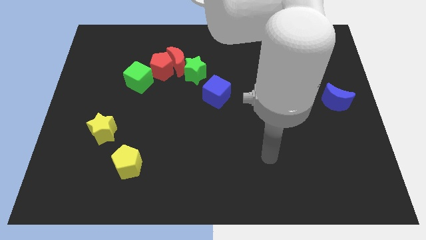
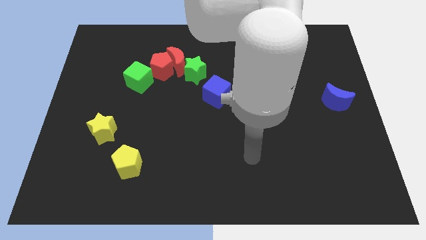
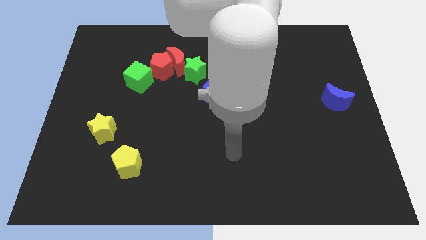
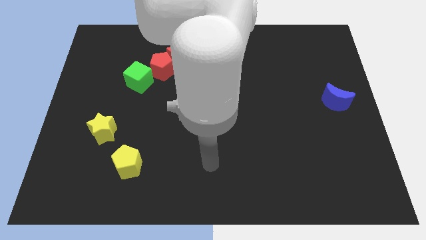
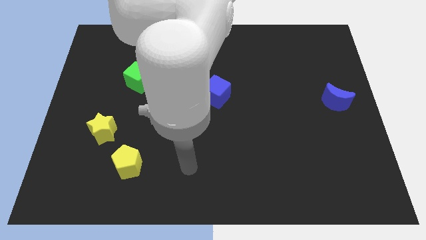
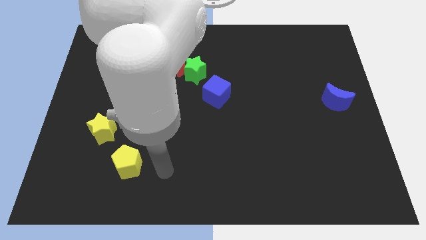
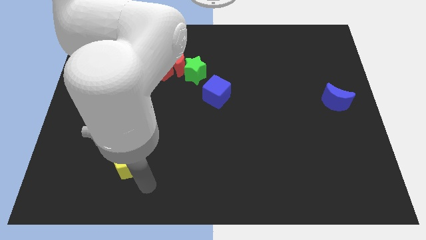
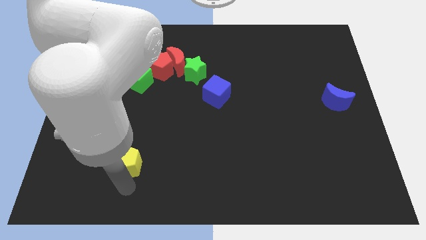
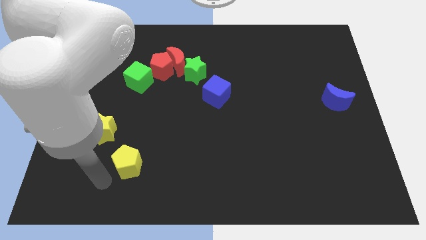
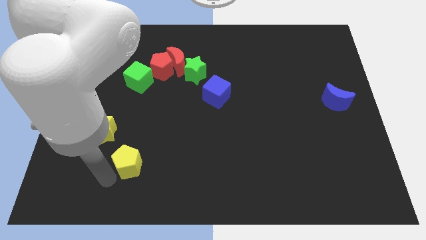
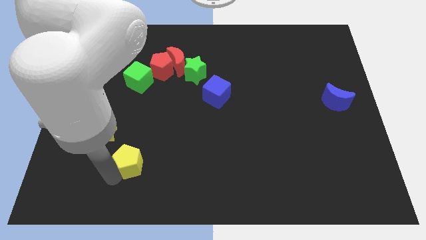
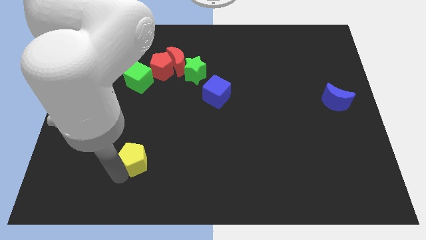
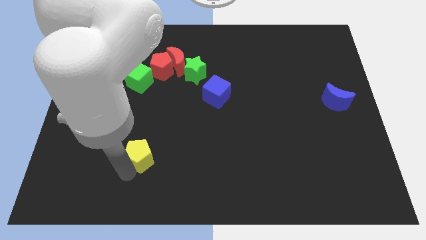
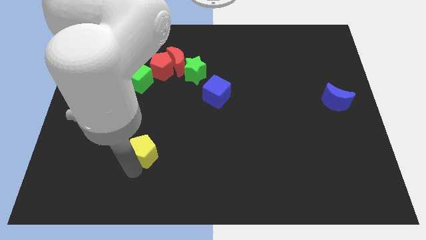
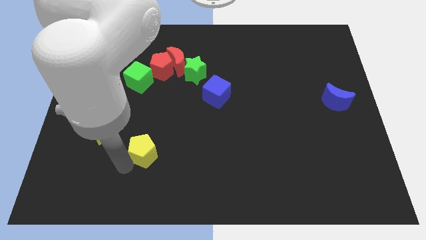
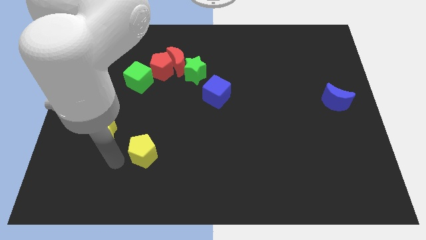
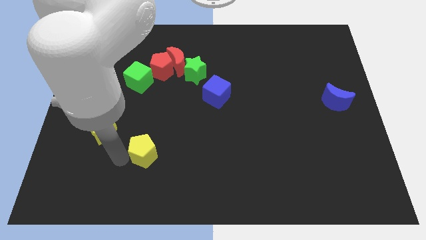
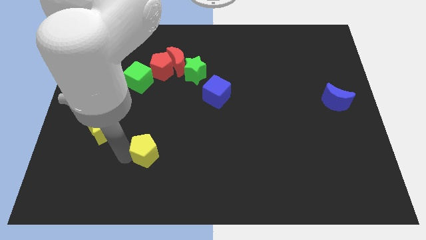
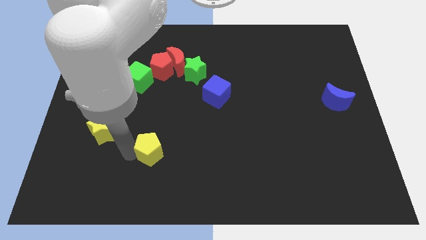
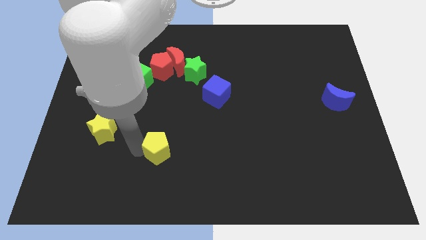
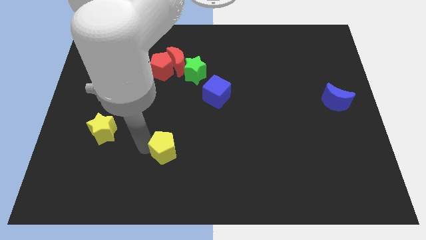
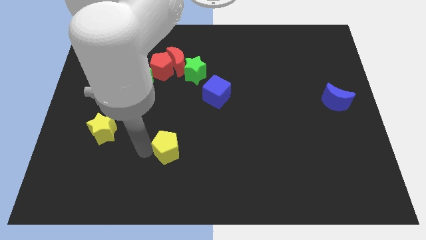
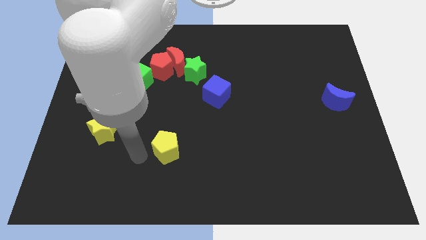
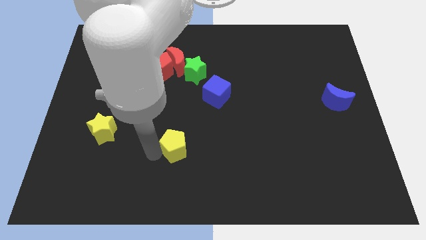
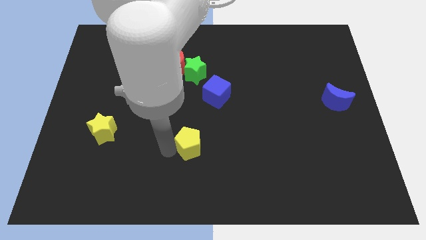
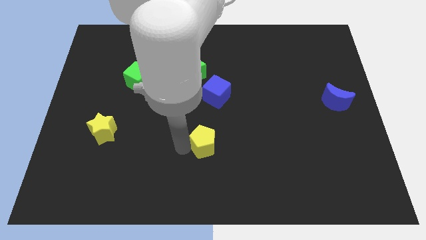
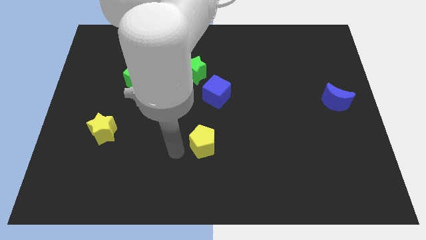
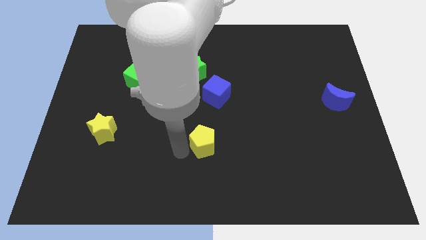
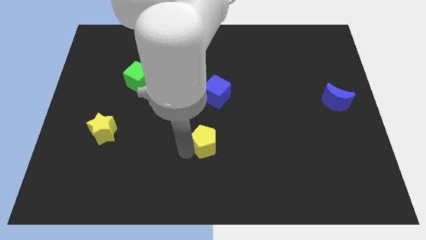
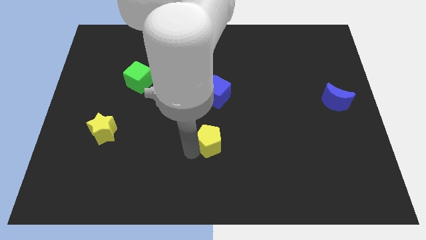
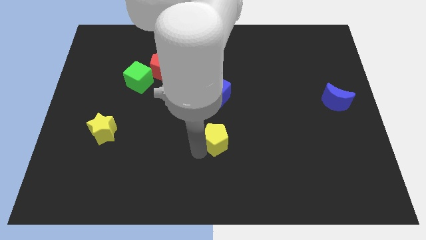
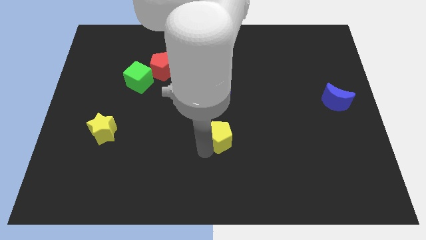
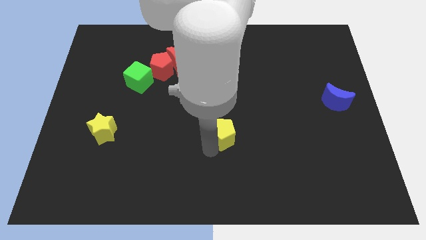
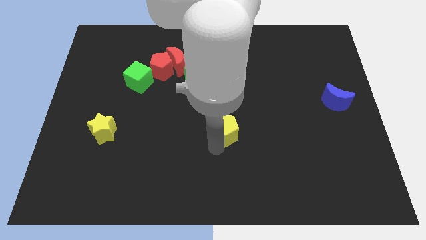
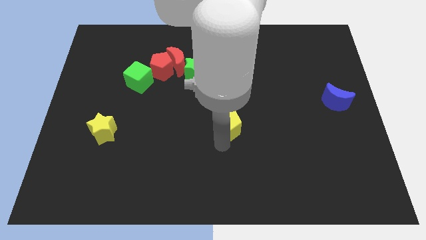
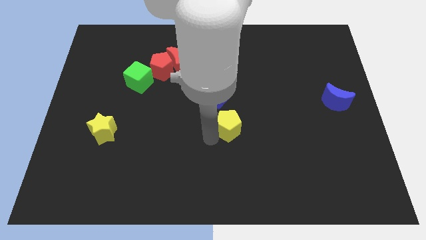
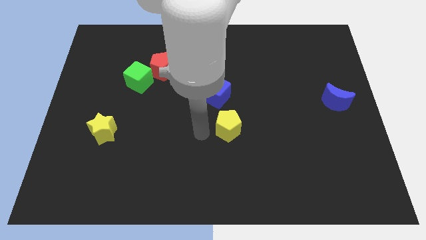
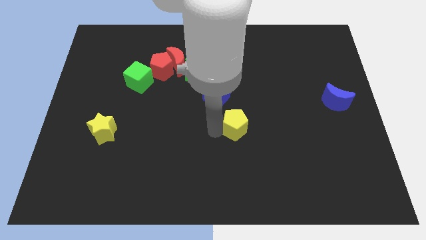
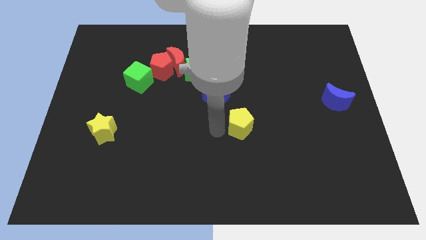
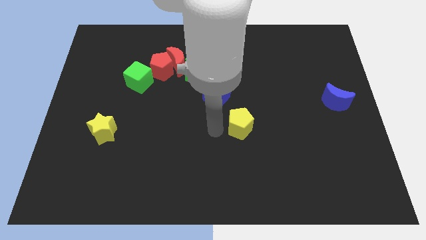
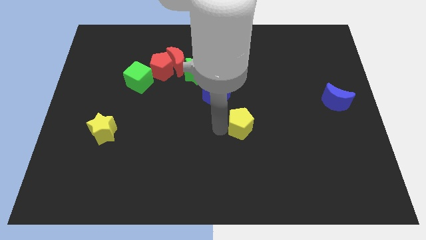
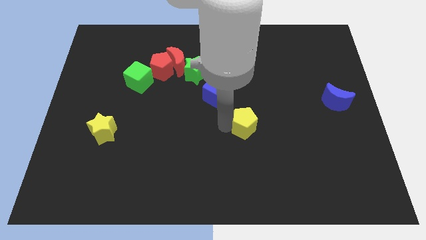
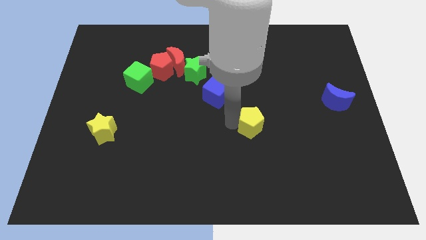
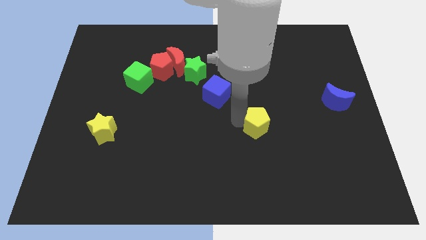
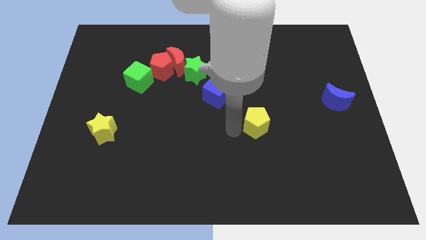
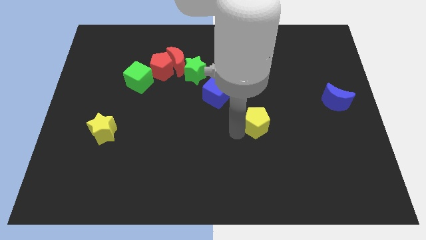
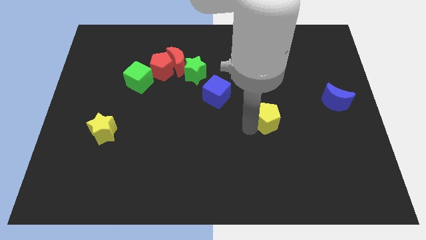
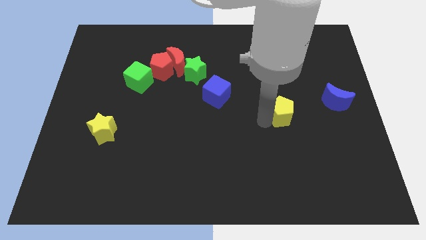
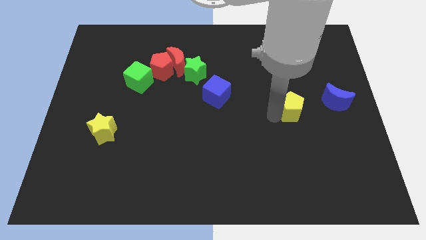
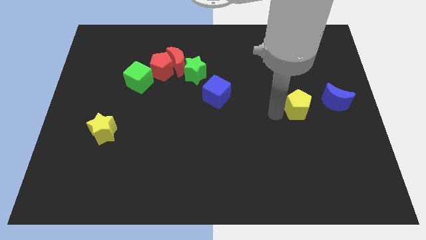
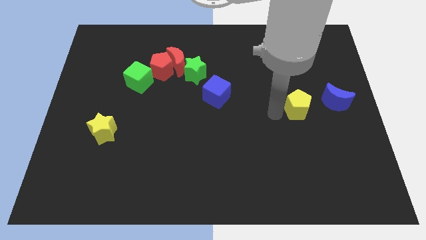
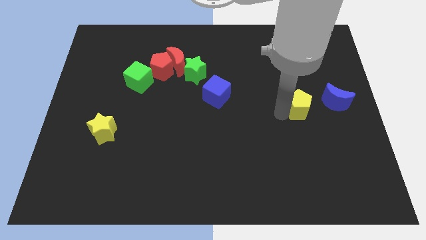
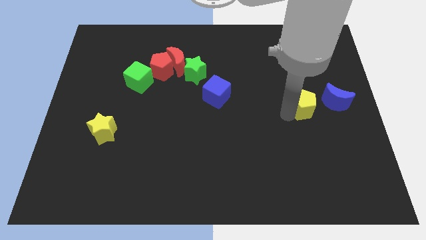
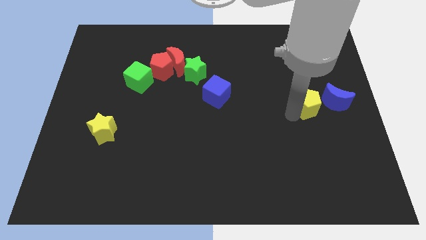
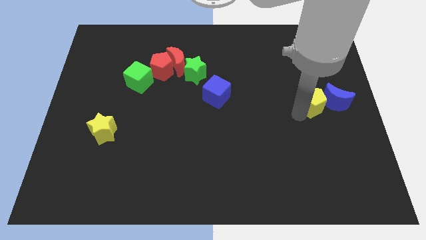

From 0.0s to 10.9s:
slide the yellow pentagon next to the blue moon

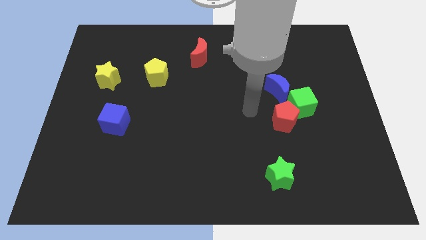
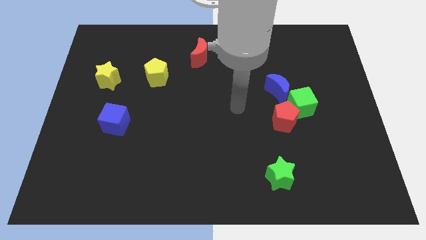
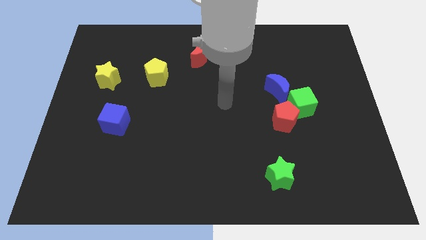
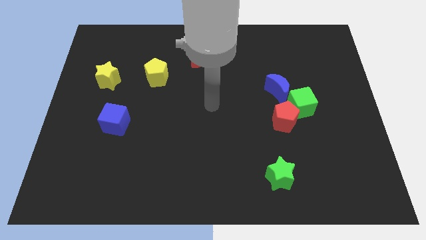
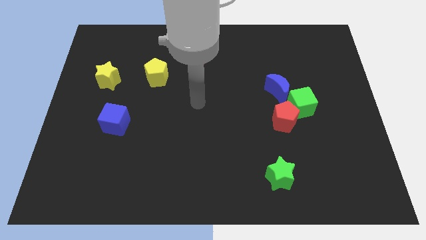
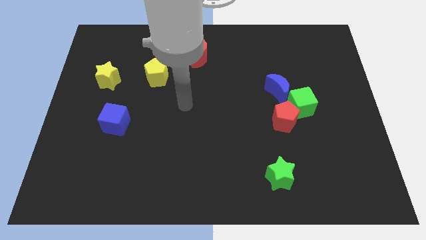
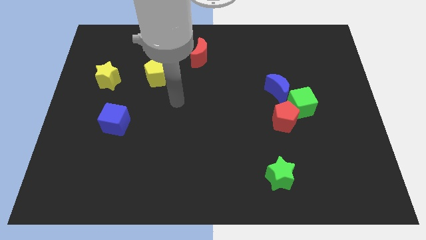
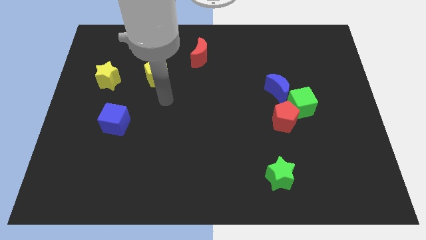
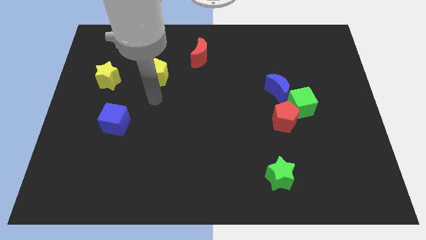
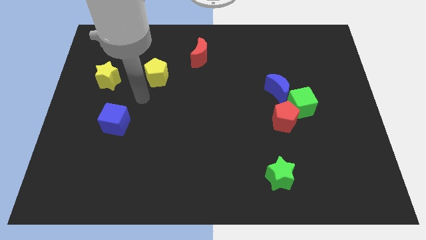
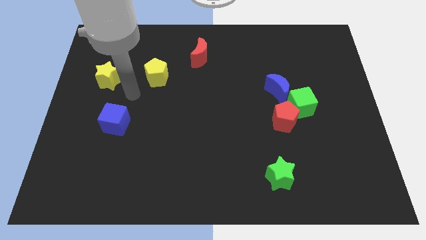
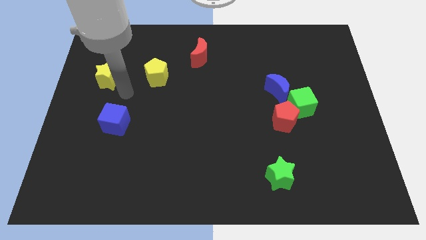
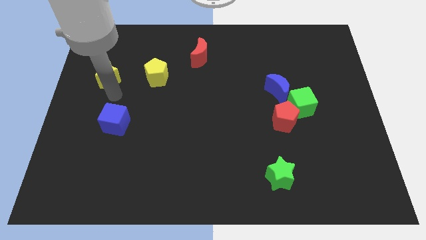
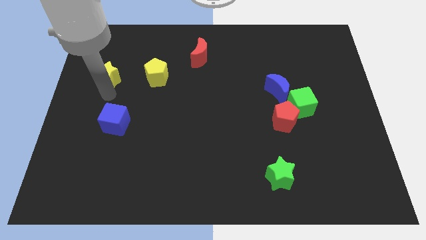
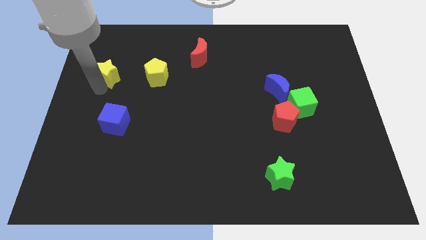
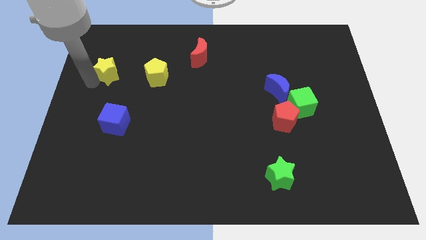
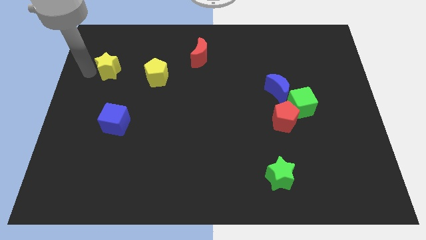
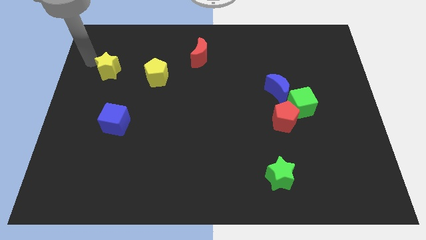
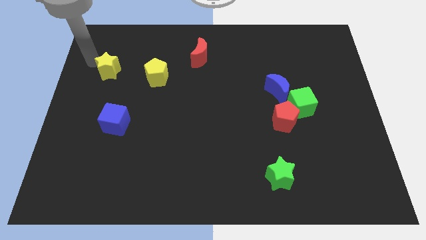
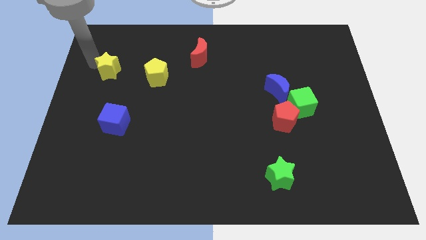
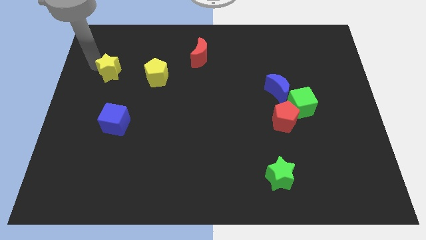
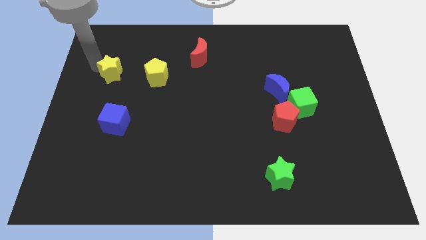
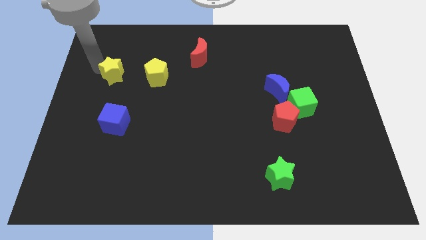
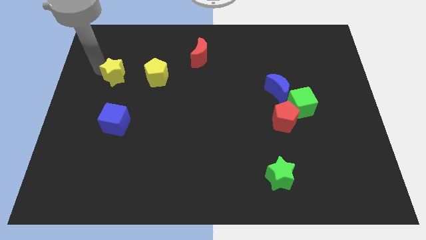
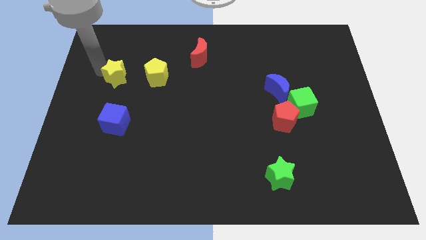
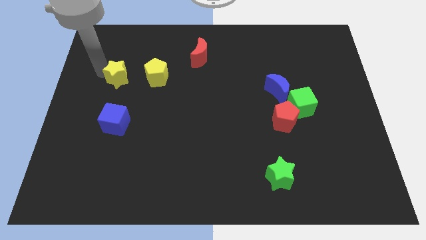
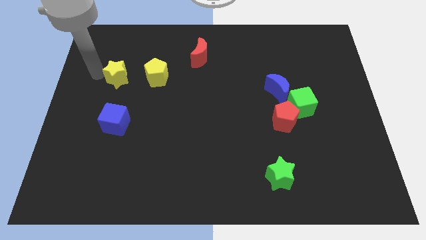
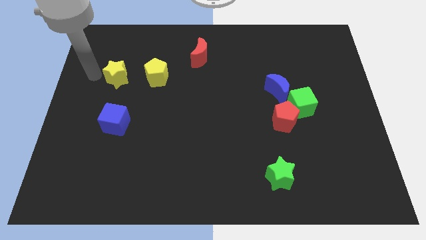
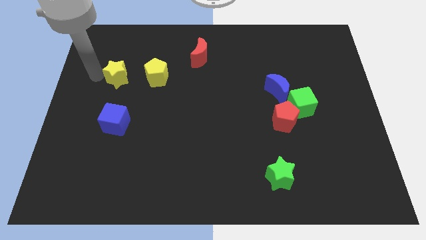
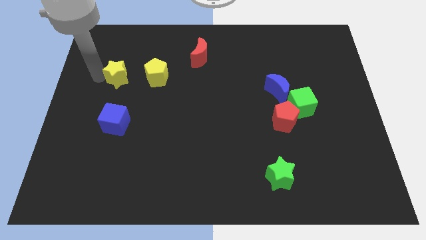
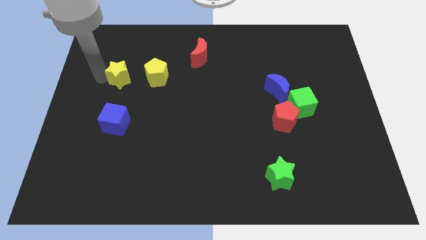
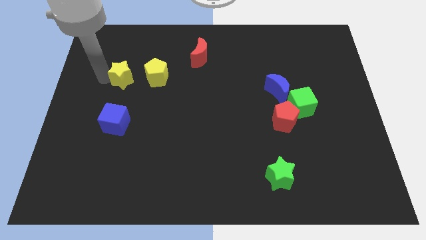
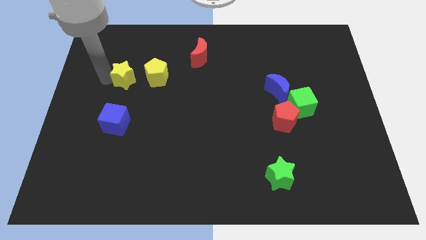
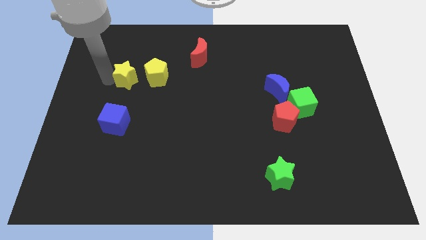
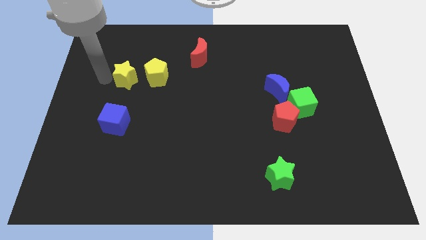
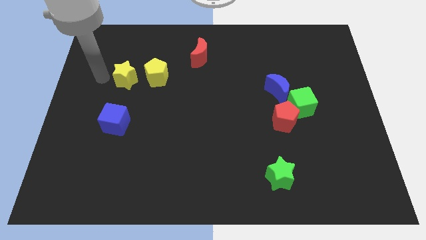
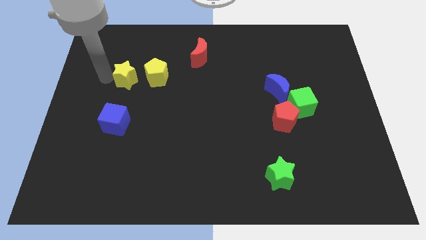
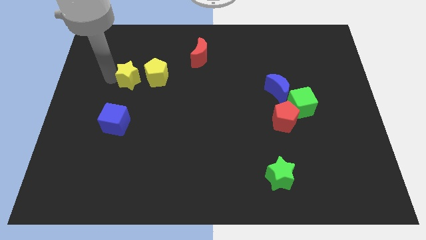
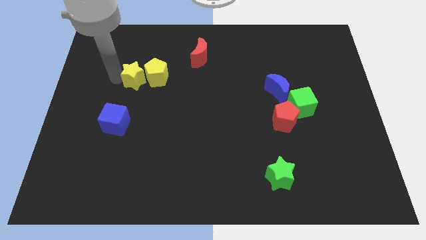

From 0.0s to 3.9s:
put the yellow star to the yellow pentagon
